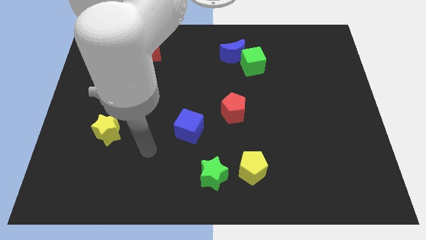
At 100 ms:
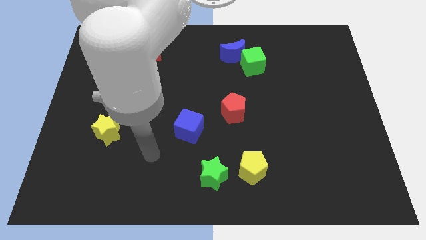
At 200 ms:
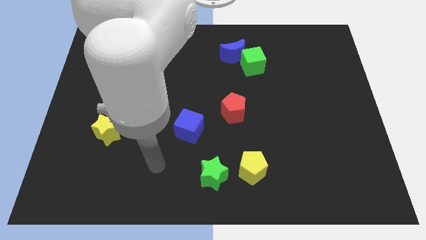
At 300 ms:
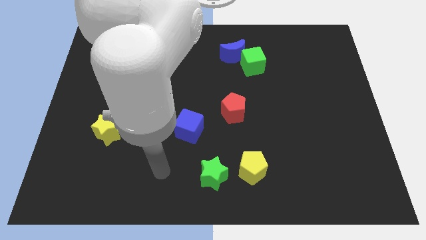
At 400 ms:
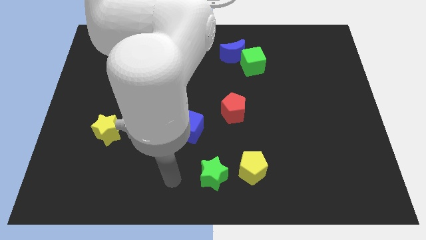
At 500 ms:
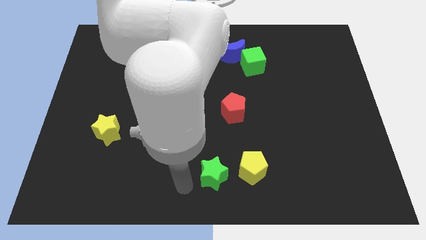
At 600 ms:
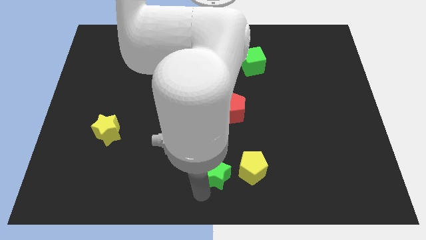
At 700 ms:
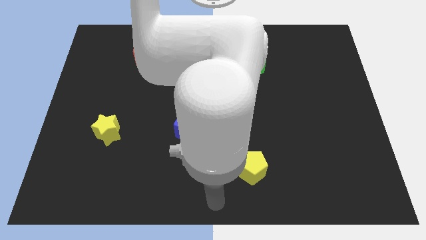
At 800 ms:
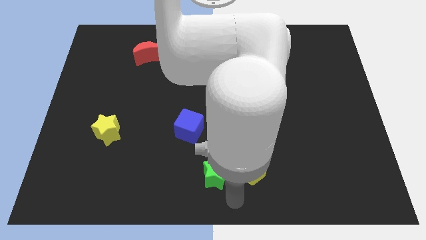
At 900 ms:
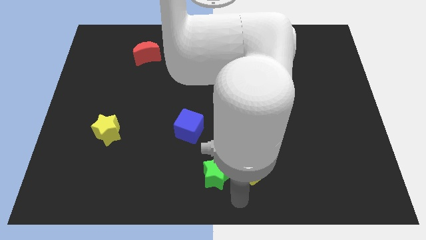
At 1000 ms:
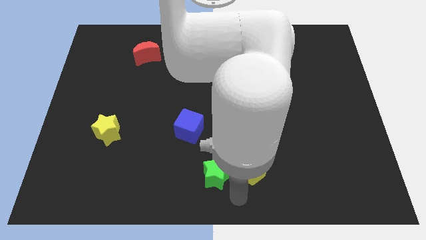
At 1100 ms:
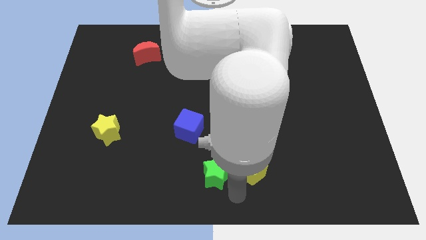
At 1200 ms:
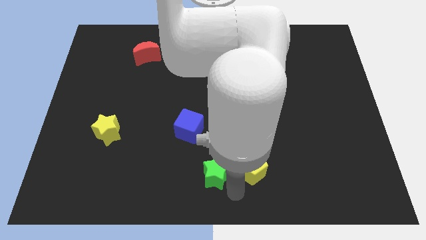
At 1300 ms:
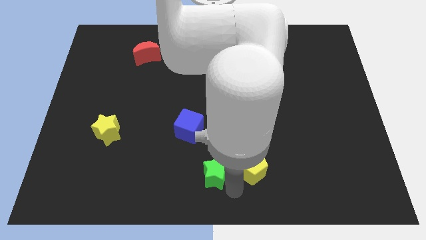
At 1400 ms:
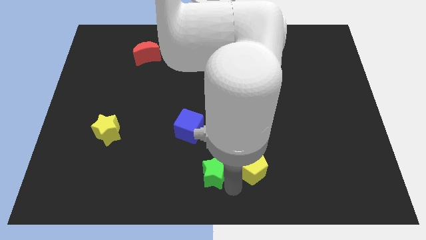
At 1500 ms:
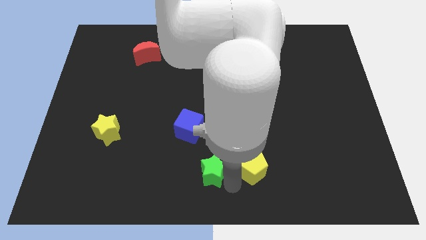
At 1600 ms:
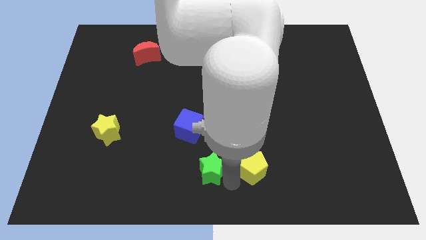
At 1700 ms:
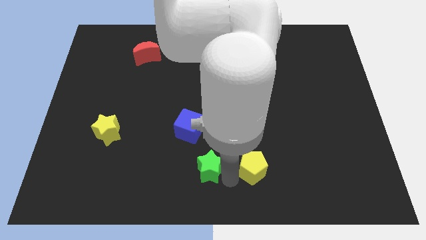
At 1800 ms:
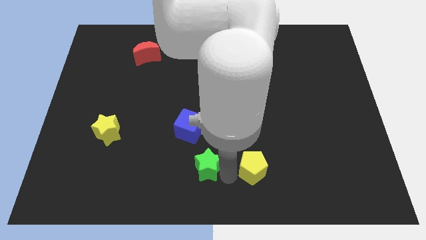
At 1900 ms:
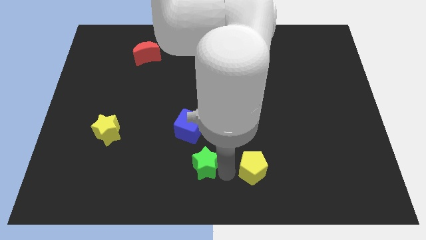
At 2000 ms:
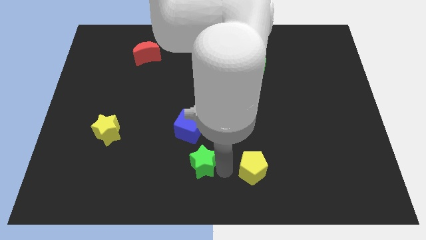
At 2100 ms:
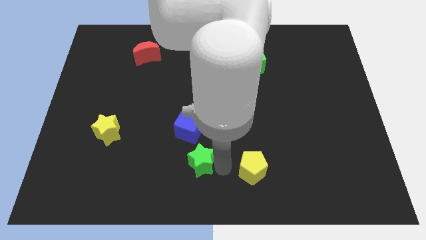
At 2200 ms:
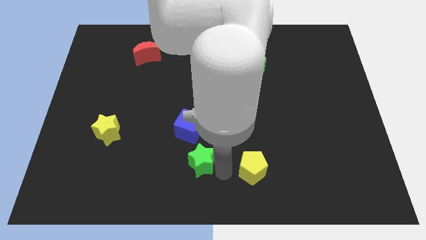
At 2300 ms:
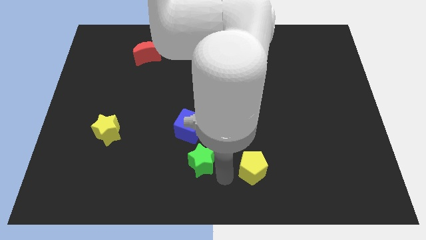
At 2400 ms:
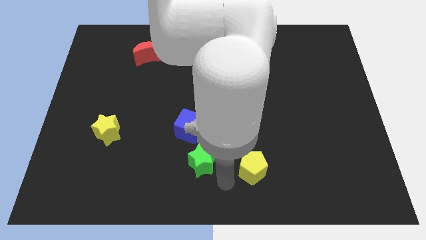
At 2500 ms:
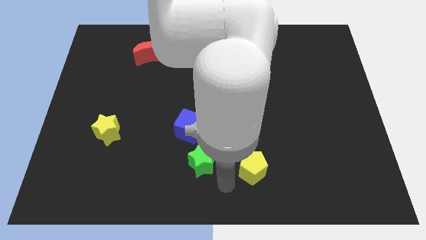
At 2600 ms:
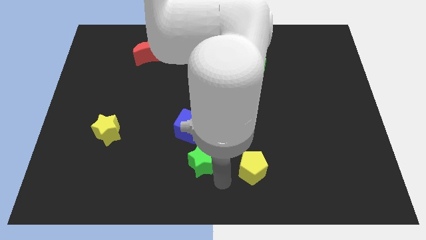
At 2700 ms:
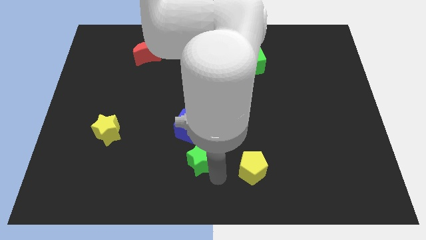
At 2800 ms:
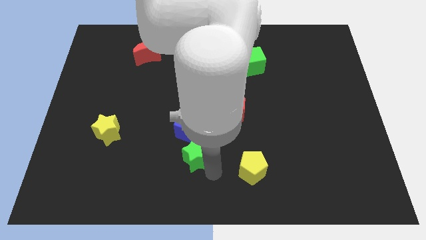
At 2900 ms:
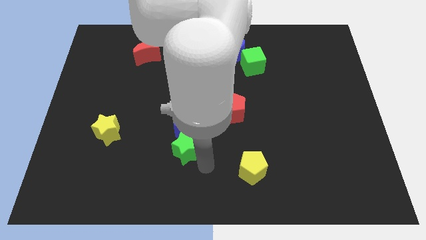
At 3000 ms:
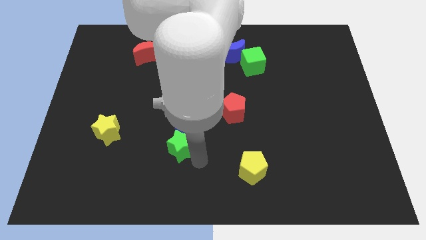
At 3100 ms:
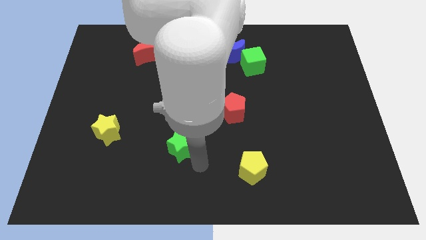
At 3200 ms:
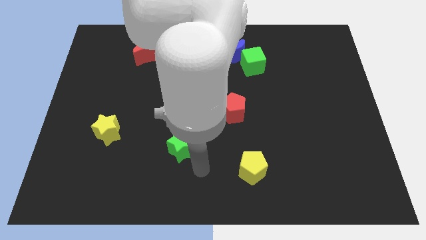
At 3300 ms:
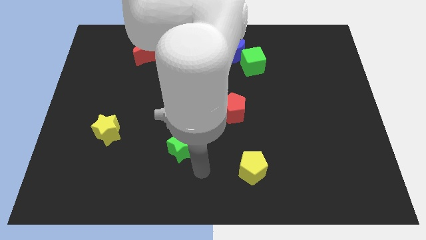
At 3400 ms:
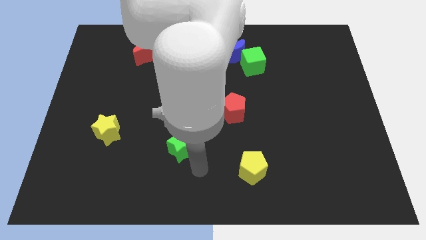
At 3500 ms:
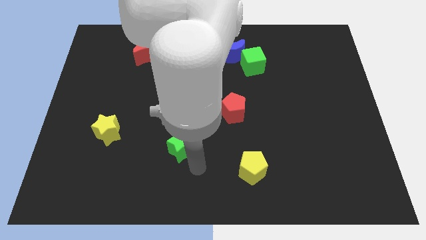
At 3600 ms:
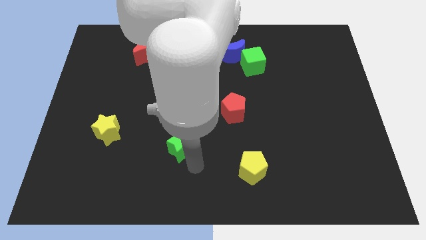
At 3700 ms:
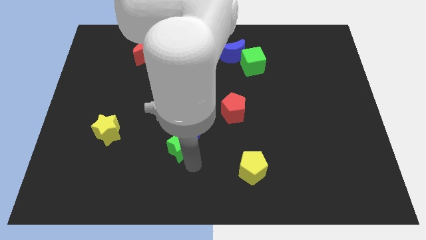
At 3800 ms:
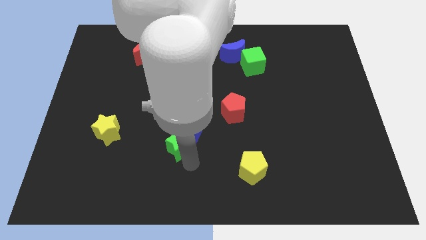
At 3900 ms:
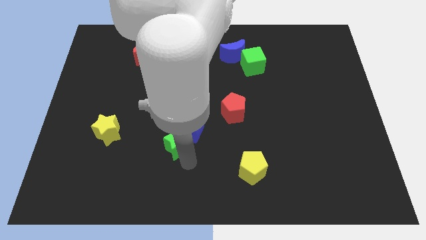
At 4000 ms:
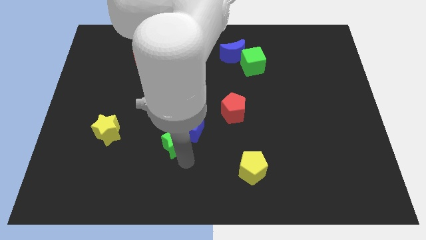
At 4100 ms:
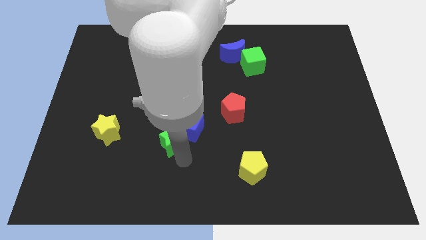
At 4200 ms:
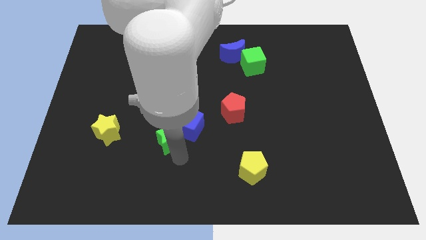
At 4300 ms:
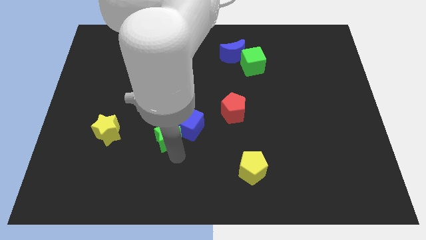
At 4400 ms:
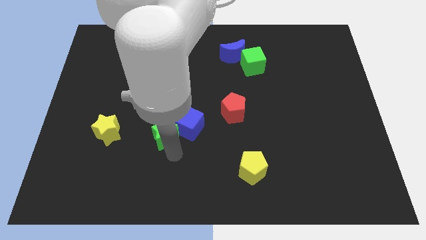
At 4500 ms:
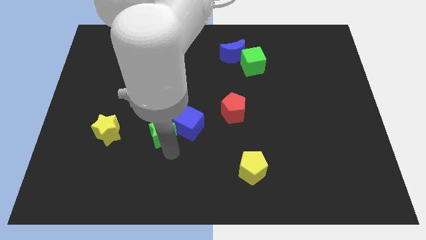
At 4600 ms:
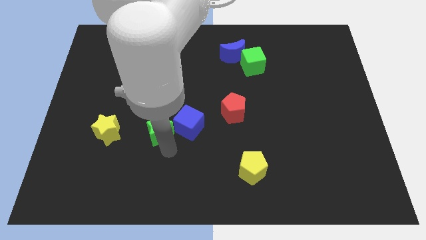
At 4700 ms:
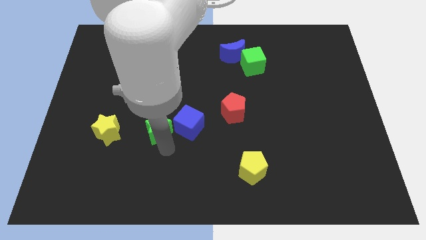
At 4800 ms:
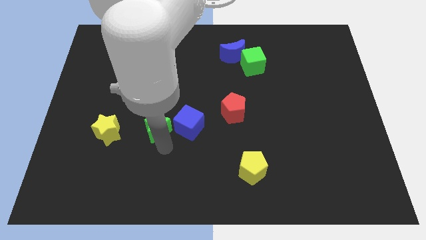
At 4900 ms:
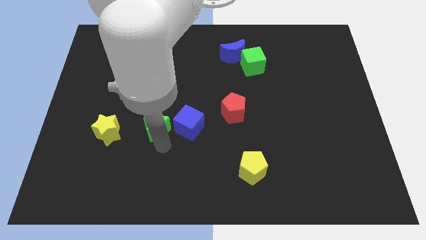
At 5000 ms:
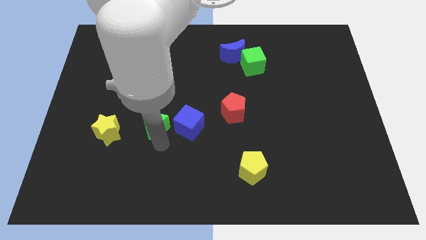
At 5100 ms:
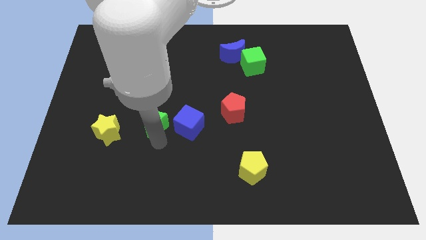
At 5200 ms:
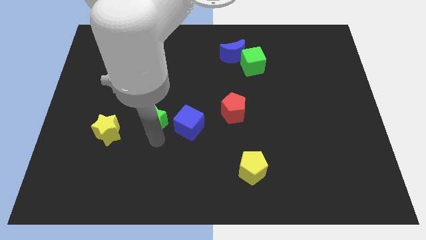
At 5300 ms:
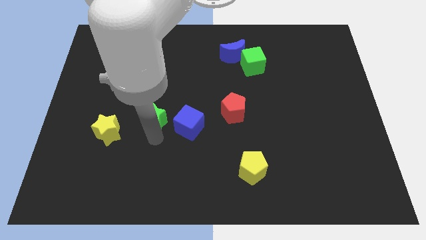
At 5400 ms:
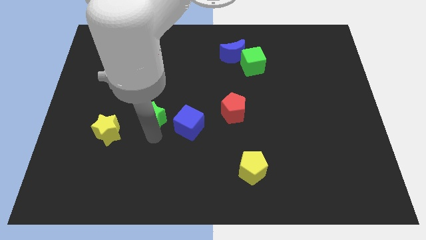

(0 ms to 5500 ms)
push the green star up and left diagonally

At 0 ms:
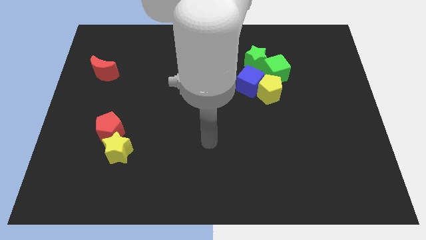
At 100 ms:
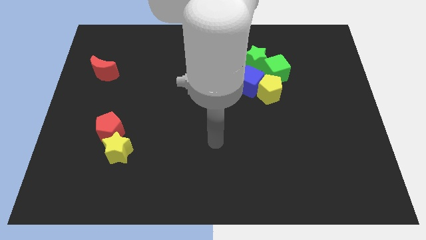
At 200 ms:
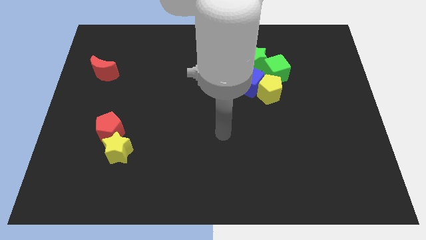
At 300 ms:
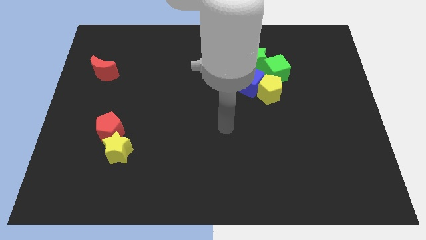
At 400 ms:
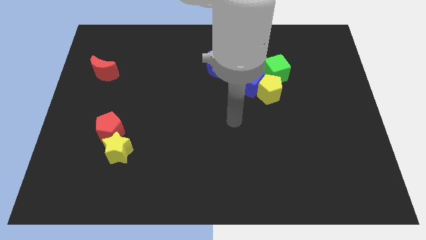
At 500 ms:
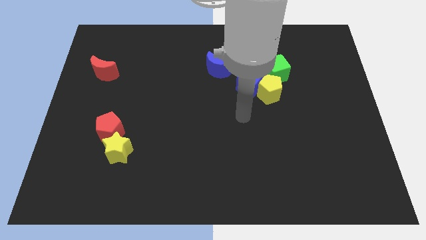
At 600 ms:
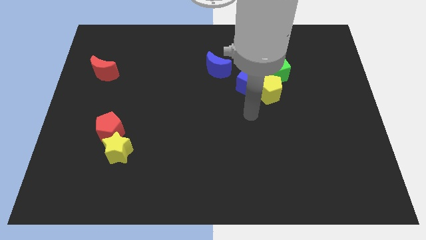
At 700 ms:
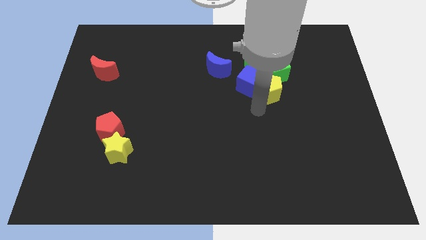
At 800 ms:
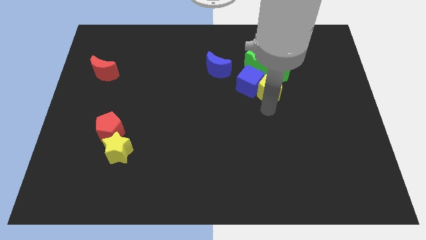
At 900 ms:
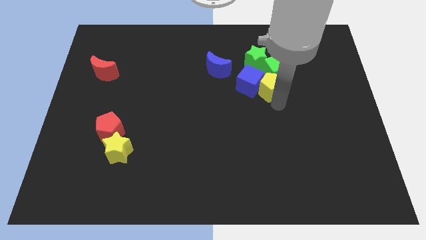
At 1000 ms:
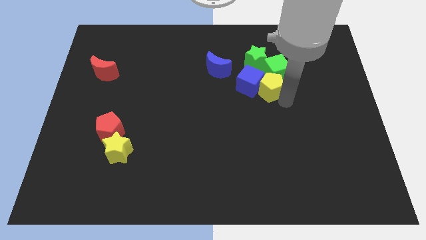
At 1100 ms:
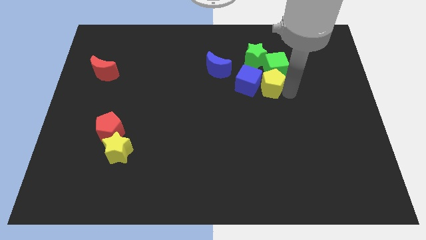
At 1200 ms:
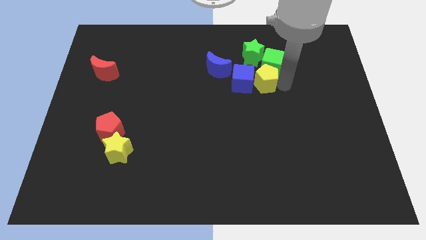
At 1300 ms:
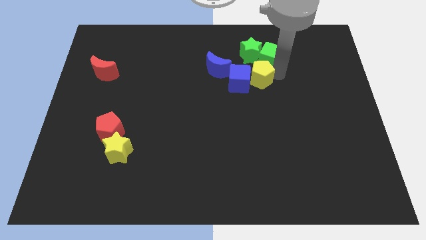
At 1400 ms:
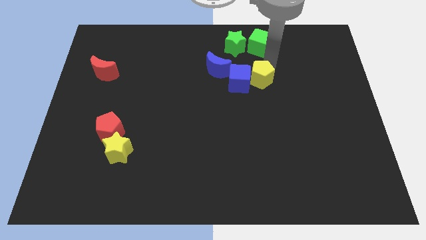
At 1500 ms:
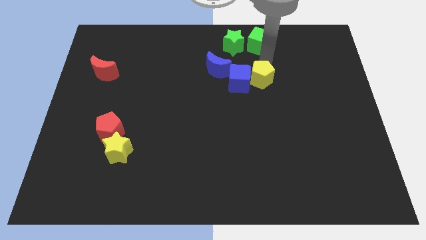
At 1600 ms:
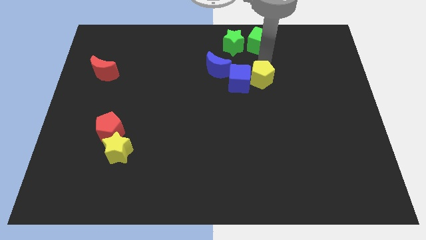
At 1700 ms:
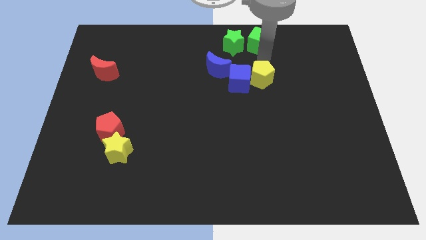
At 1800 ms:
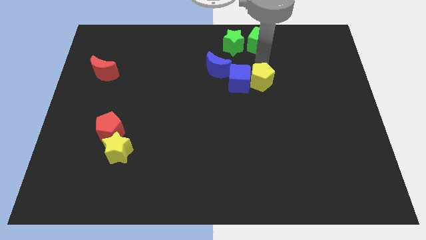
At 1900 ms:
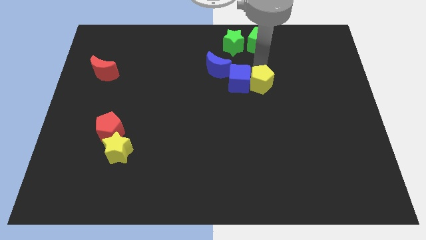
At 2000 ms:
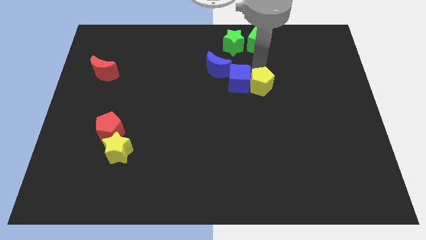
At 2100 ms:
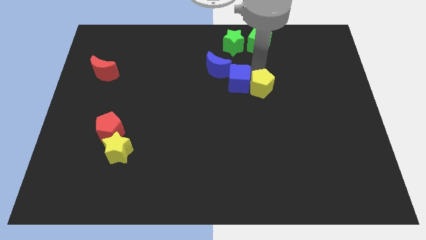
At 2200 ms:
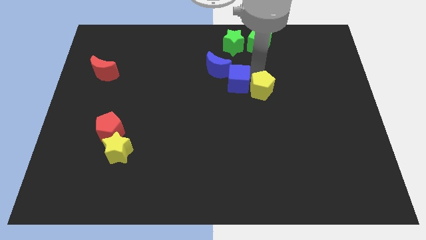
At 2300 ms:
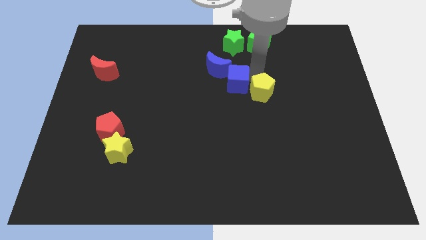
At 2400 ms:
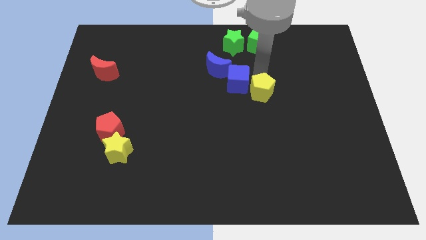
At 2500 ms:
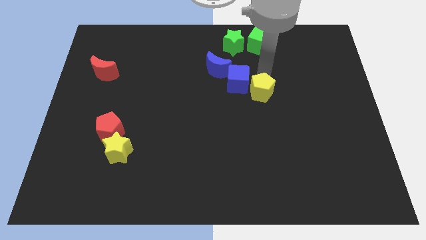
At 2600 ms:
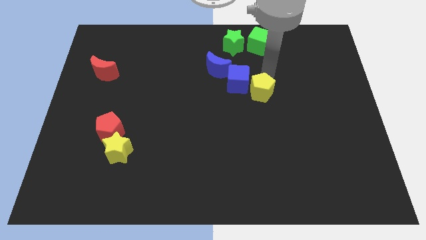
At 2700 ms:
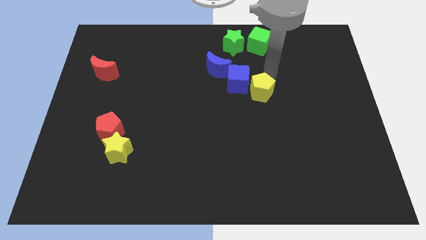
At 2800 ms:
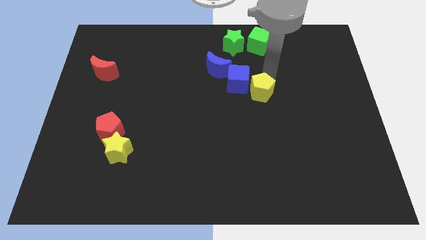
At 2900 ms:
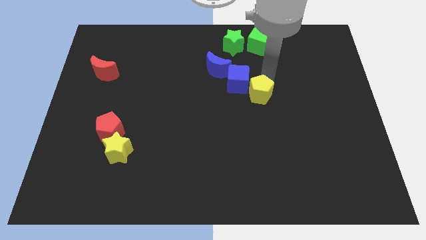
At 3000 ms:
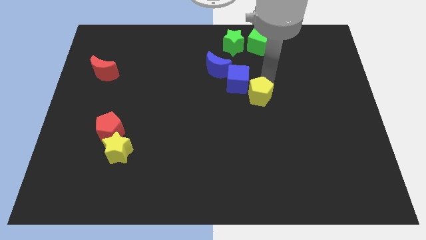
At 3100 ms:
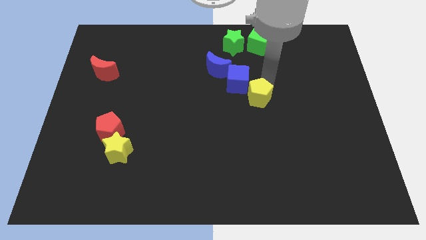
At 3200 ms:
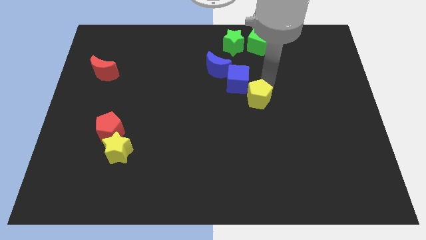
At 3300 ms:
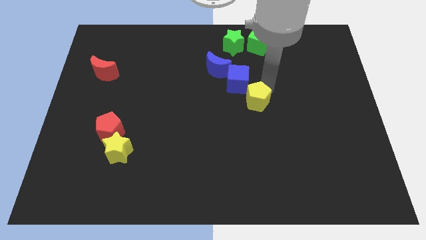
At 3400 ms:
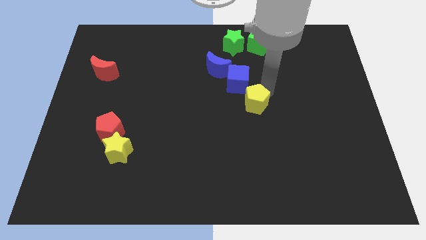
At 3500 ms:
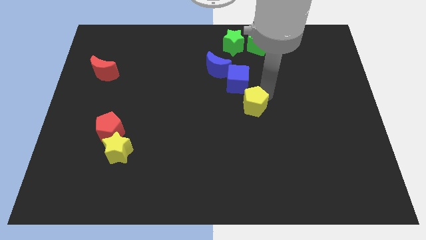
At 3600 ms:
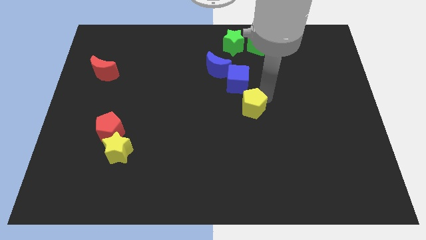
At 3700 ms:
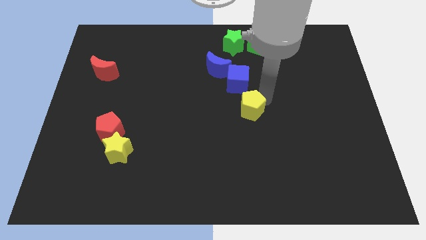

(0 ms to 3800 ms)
slide the yellow pentagon diagonally downwards and to the left a little bit
